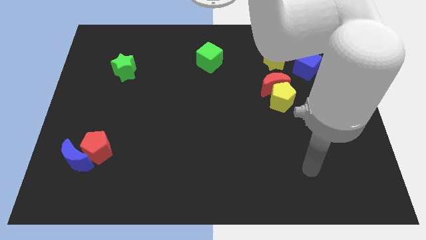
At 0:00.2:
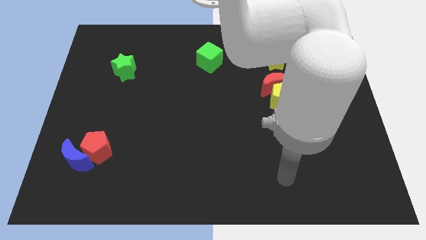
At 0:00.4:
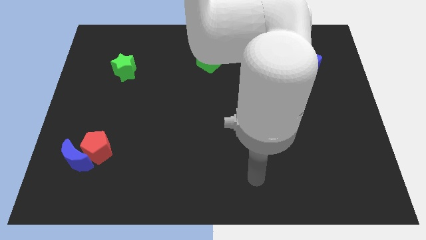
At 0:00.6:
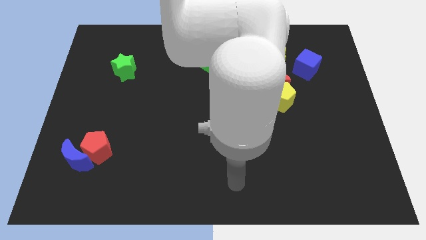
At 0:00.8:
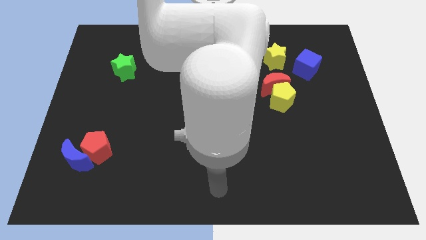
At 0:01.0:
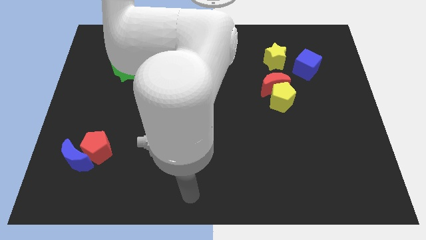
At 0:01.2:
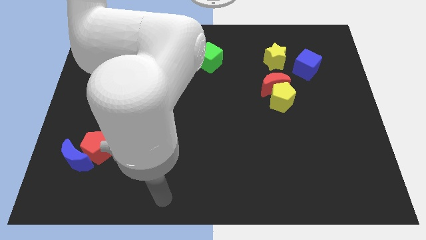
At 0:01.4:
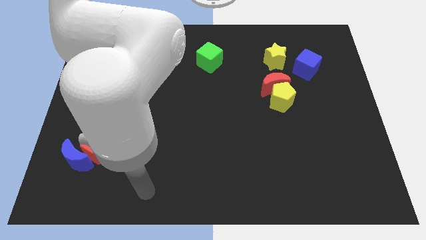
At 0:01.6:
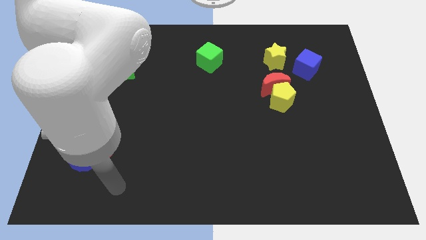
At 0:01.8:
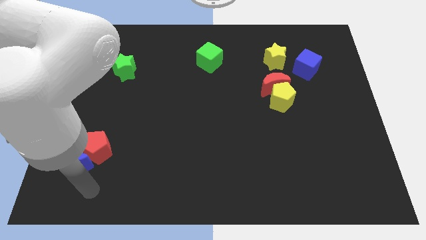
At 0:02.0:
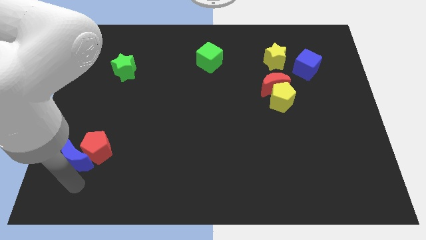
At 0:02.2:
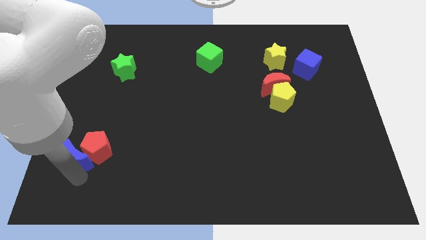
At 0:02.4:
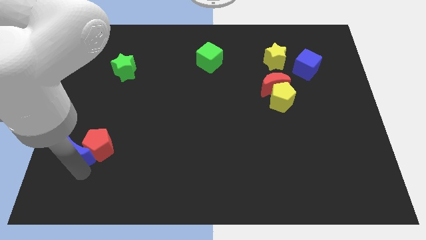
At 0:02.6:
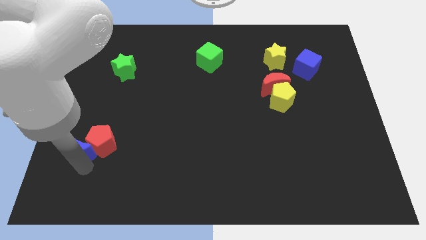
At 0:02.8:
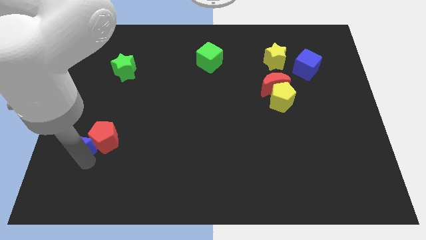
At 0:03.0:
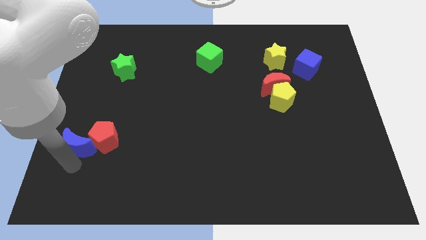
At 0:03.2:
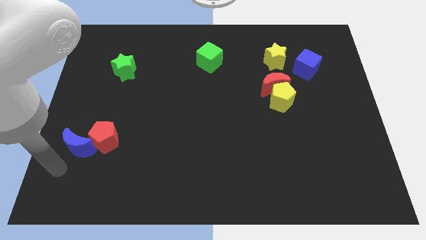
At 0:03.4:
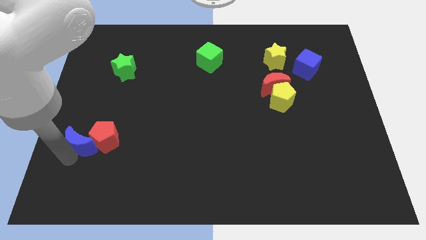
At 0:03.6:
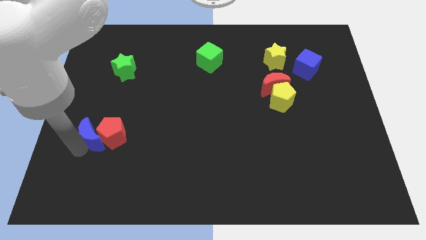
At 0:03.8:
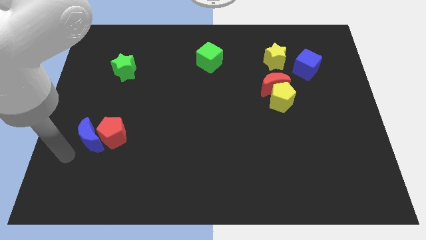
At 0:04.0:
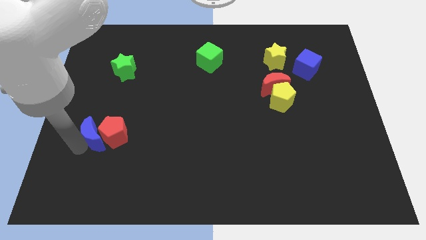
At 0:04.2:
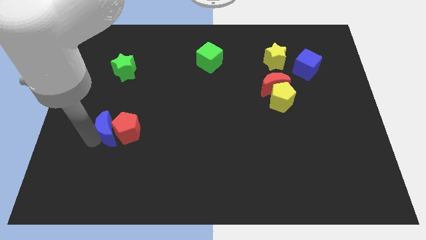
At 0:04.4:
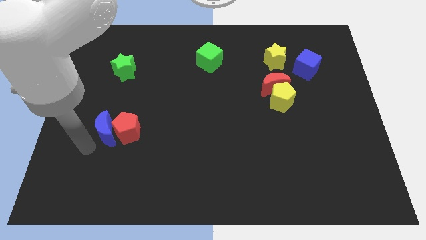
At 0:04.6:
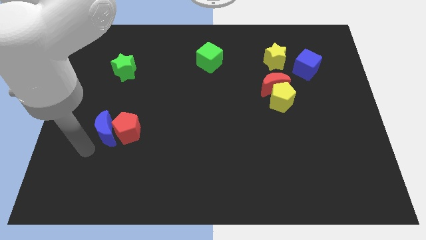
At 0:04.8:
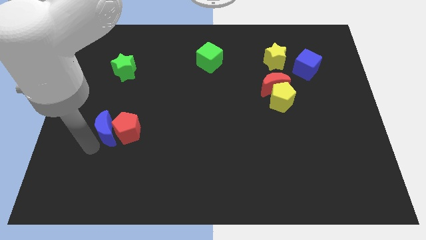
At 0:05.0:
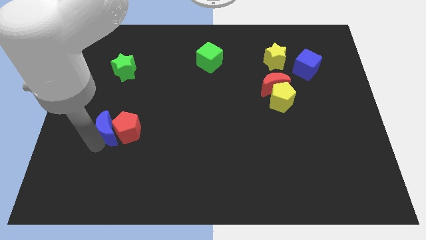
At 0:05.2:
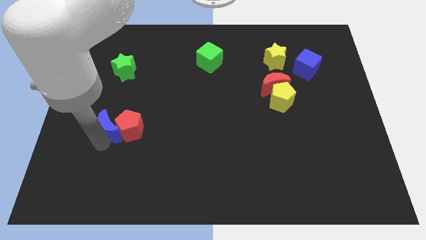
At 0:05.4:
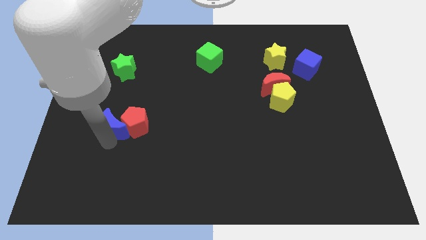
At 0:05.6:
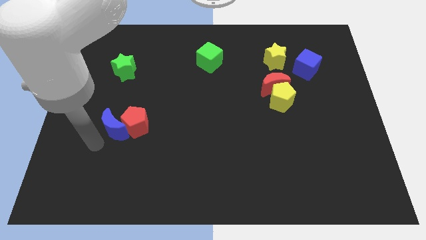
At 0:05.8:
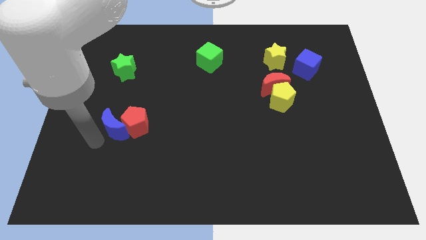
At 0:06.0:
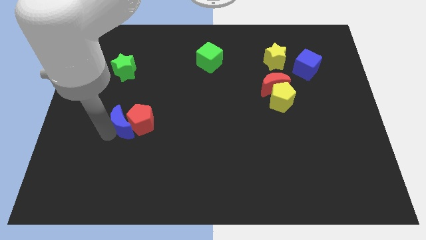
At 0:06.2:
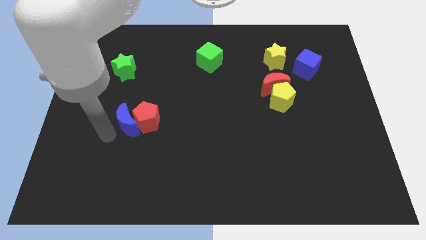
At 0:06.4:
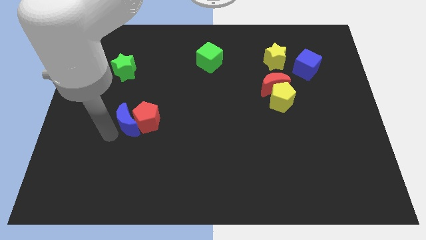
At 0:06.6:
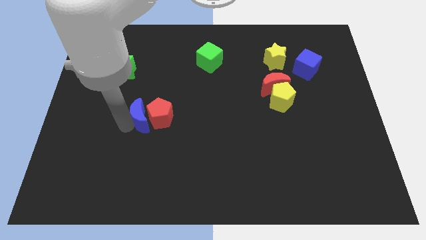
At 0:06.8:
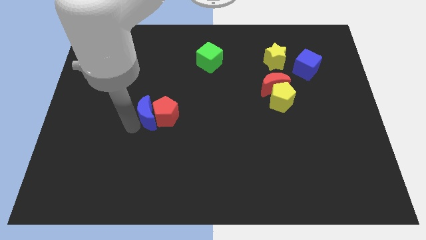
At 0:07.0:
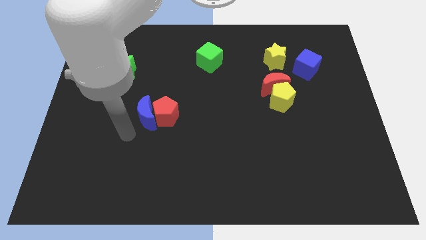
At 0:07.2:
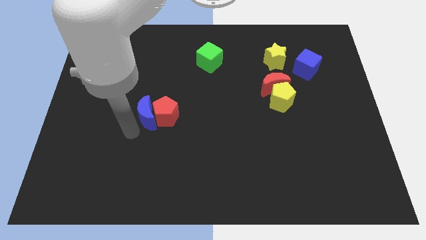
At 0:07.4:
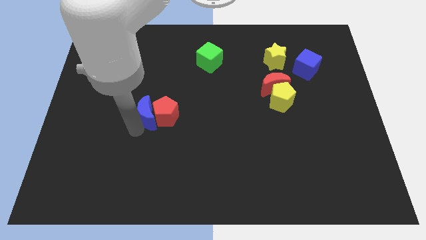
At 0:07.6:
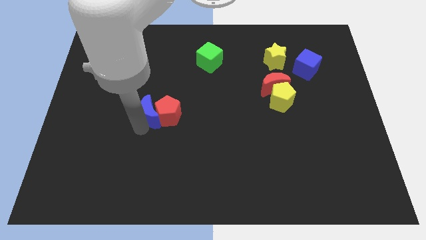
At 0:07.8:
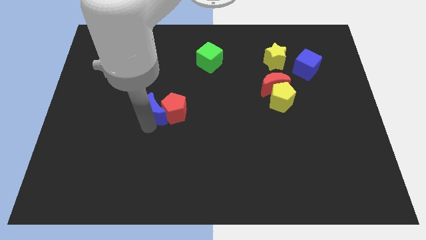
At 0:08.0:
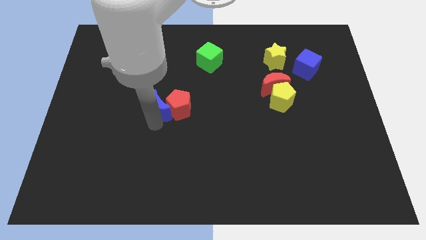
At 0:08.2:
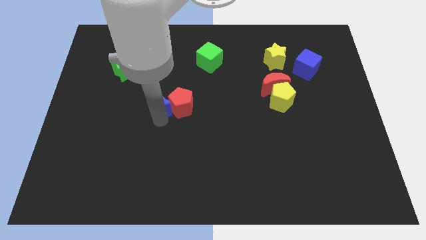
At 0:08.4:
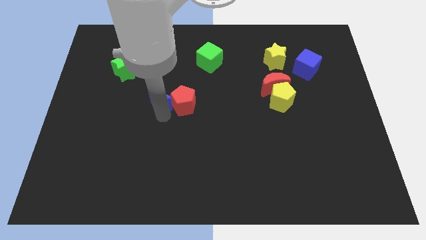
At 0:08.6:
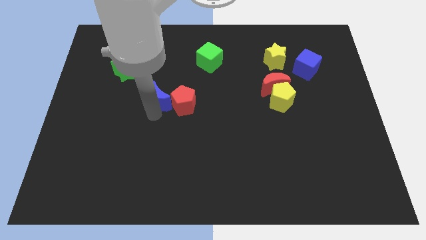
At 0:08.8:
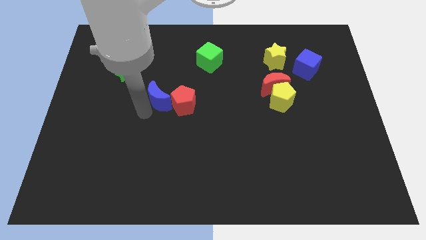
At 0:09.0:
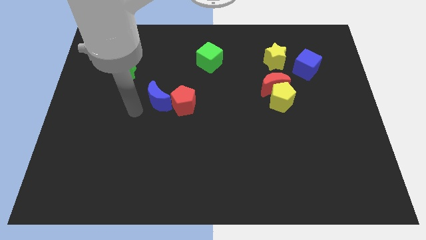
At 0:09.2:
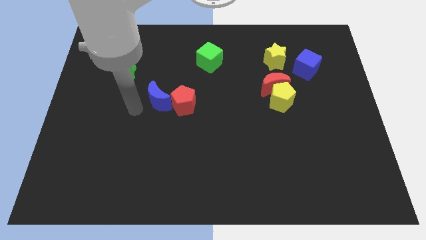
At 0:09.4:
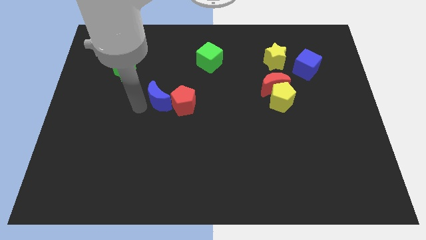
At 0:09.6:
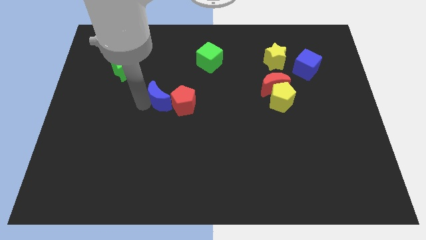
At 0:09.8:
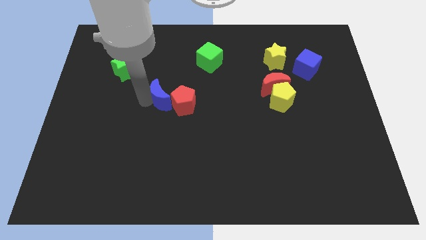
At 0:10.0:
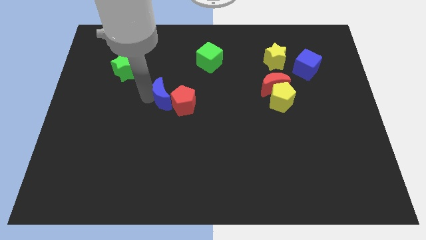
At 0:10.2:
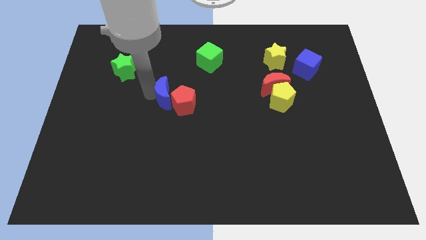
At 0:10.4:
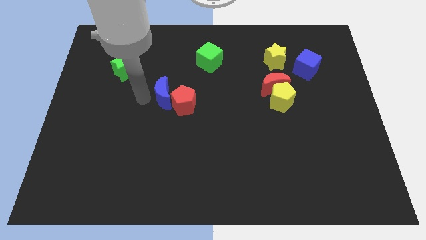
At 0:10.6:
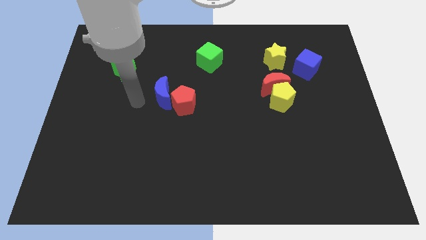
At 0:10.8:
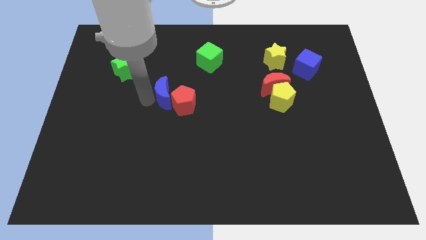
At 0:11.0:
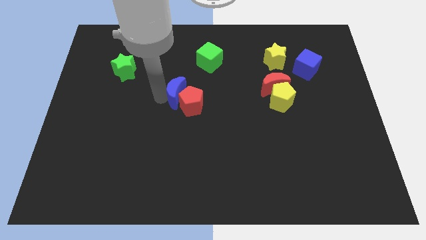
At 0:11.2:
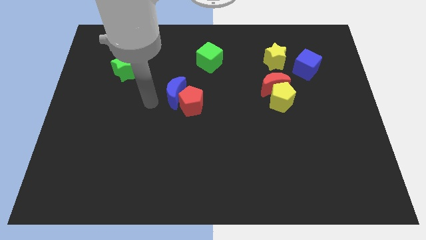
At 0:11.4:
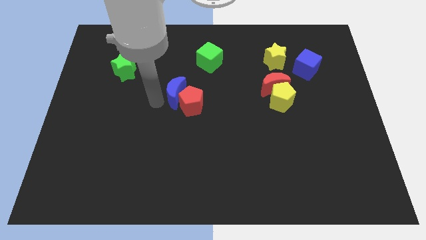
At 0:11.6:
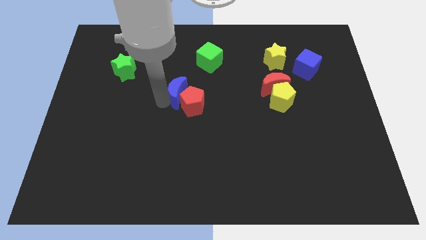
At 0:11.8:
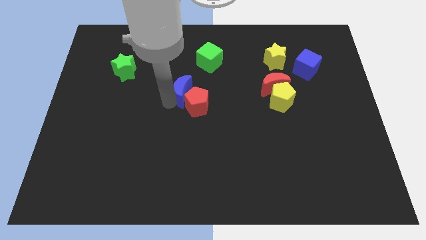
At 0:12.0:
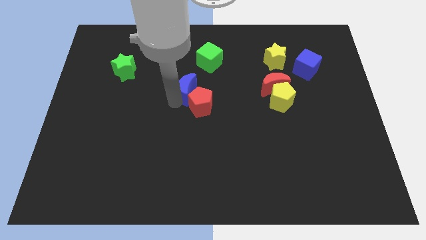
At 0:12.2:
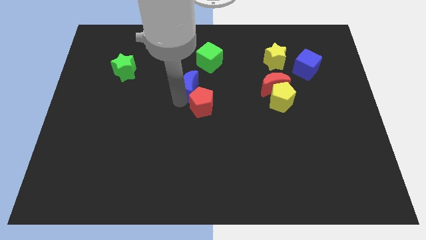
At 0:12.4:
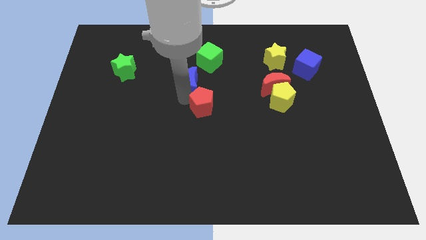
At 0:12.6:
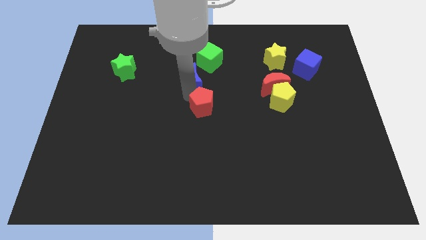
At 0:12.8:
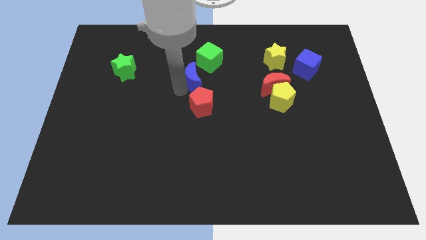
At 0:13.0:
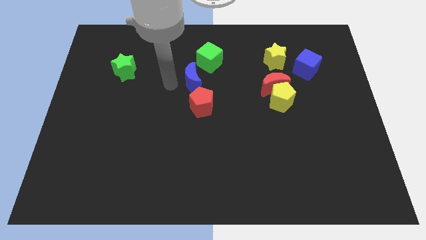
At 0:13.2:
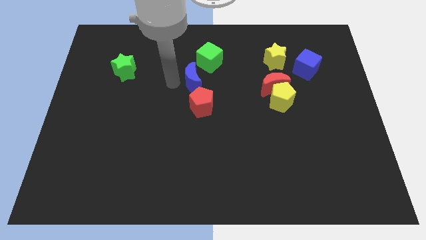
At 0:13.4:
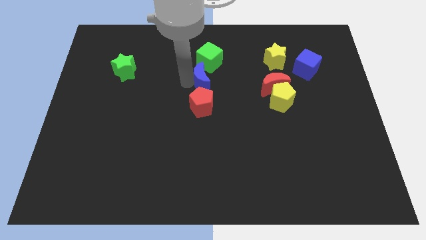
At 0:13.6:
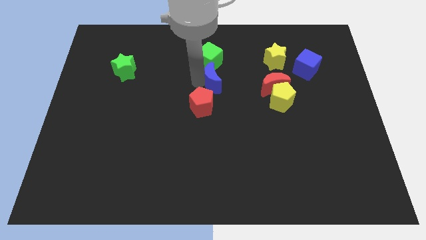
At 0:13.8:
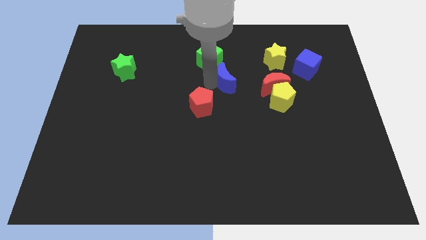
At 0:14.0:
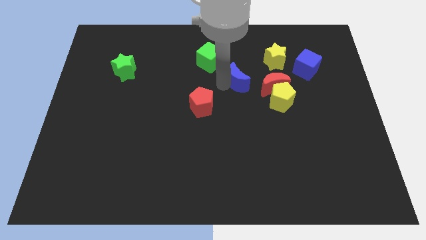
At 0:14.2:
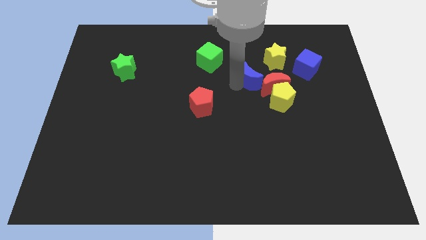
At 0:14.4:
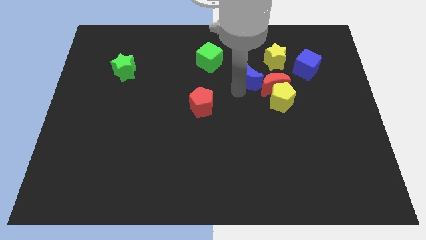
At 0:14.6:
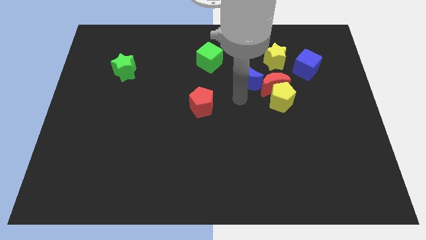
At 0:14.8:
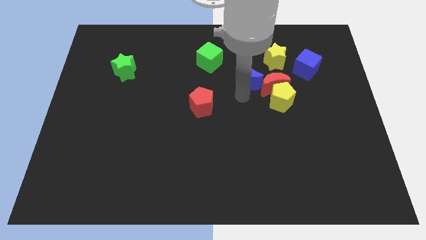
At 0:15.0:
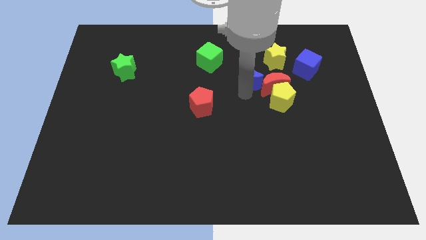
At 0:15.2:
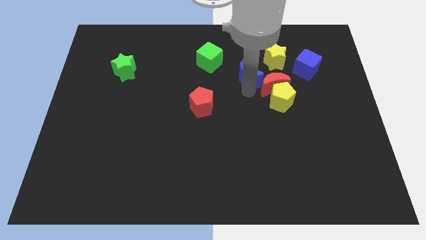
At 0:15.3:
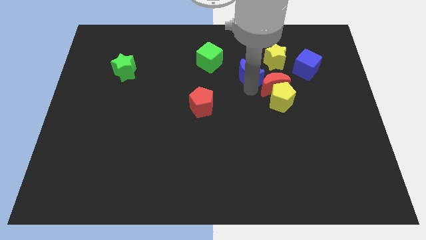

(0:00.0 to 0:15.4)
move the blue moon left of the blue cube
